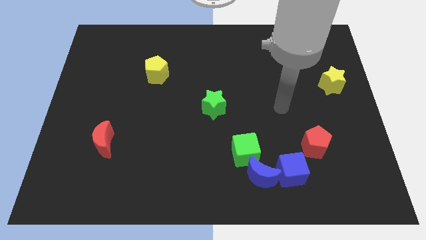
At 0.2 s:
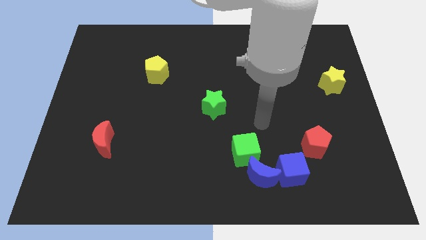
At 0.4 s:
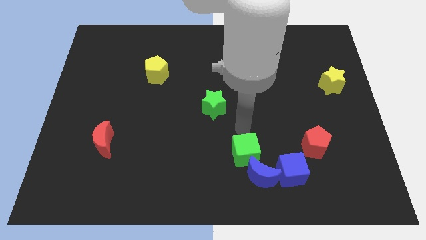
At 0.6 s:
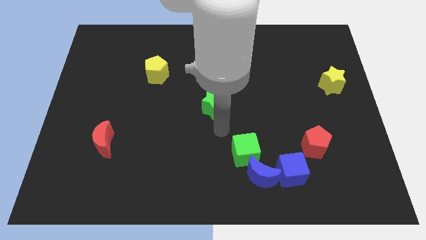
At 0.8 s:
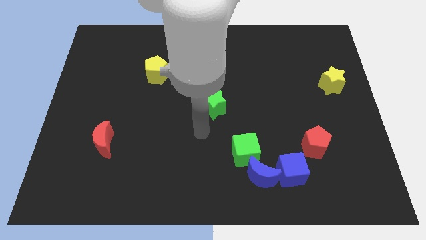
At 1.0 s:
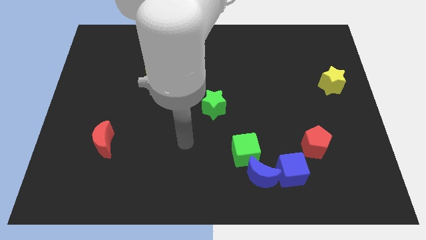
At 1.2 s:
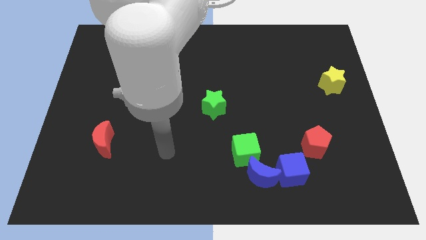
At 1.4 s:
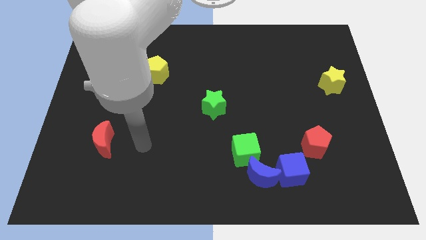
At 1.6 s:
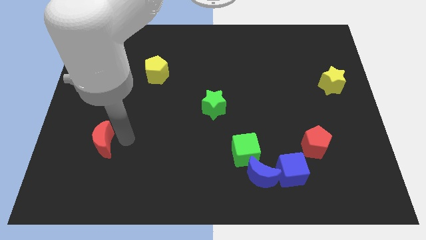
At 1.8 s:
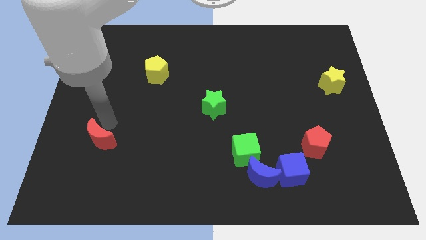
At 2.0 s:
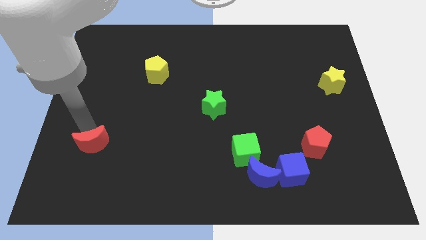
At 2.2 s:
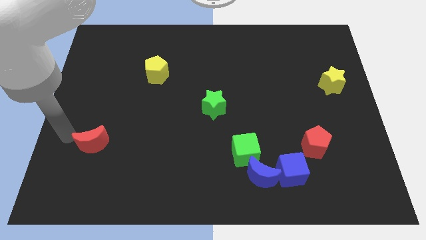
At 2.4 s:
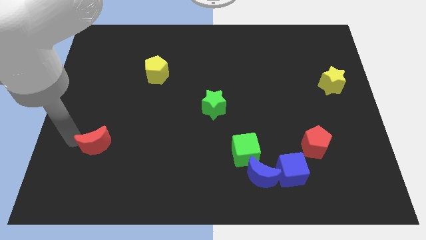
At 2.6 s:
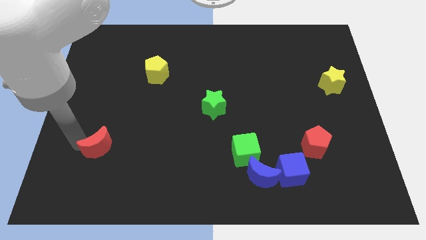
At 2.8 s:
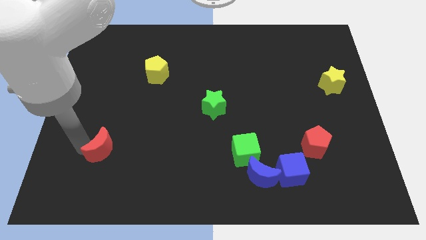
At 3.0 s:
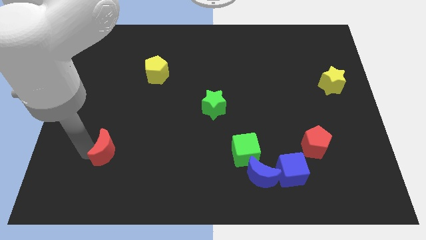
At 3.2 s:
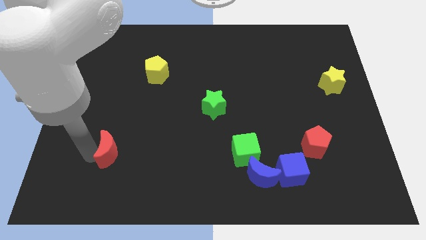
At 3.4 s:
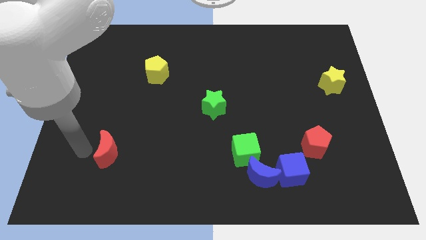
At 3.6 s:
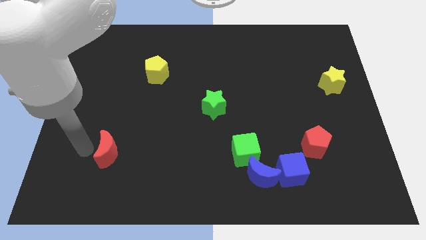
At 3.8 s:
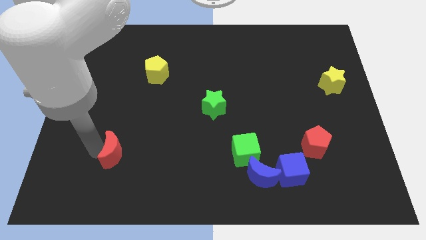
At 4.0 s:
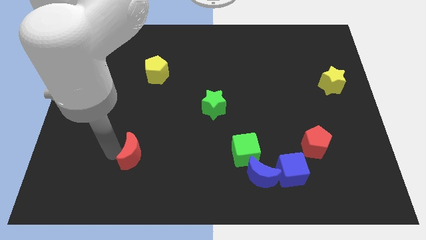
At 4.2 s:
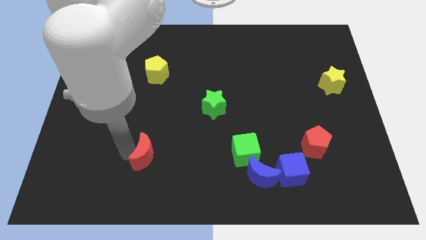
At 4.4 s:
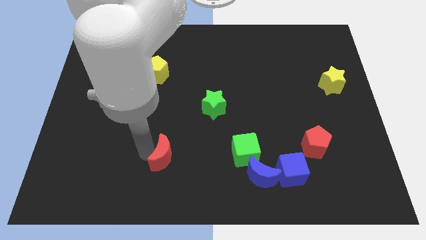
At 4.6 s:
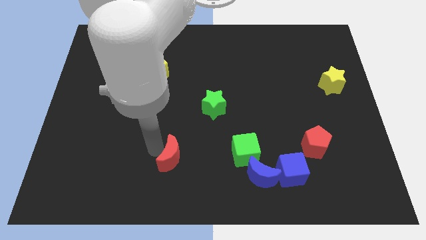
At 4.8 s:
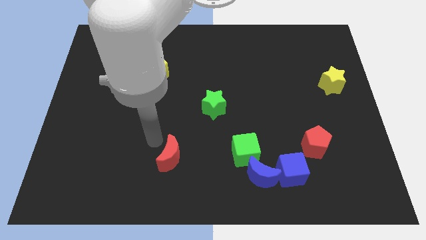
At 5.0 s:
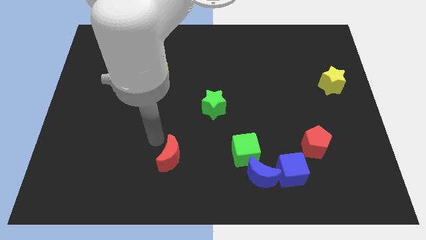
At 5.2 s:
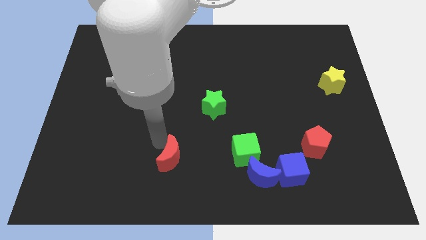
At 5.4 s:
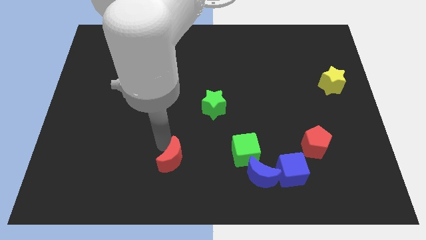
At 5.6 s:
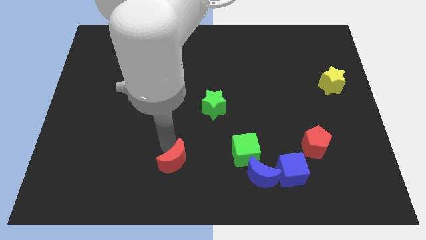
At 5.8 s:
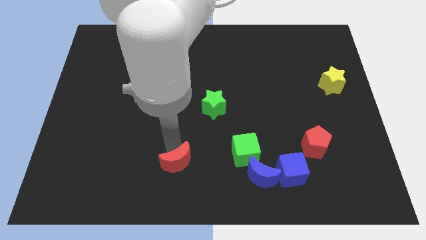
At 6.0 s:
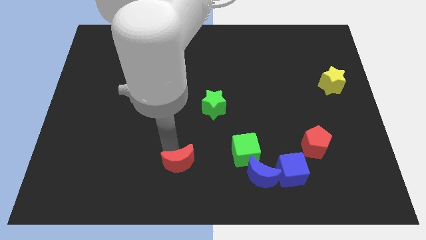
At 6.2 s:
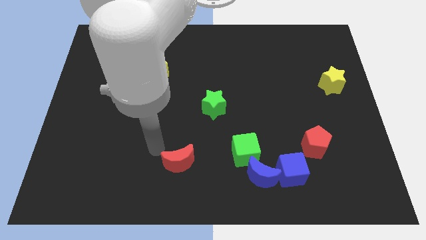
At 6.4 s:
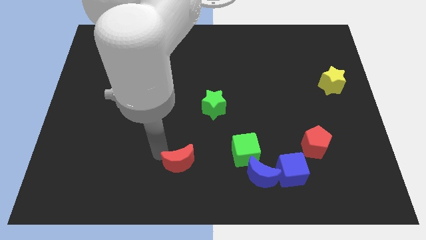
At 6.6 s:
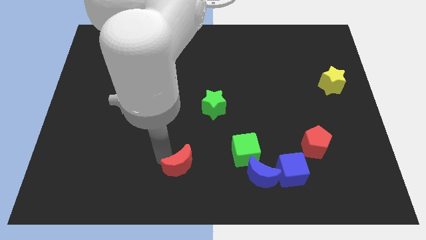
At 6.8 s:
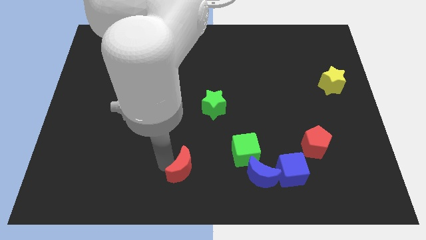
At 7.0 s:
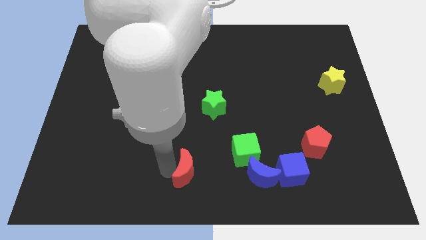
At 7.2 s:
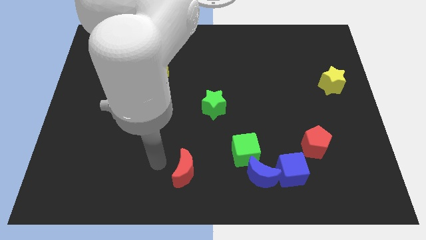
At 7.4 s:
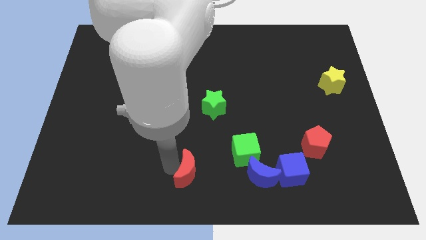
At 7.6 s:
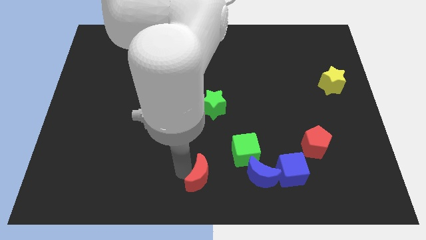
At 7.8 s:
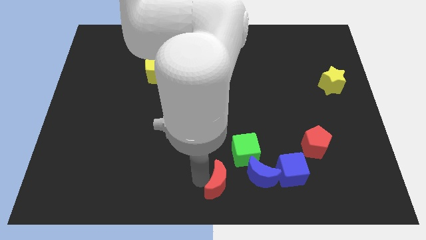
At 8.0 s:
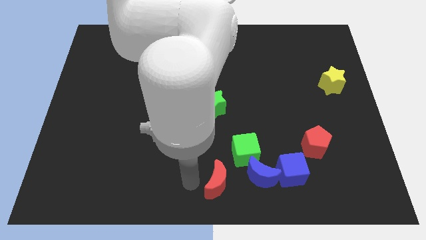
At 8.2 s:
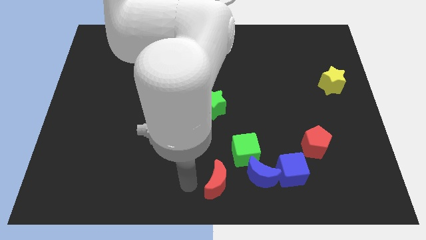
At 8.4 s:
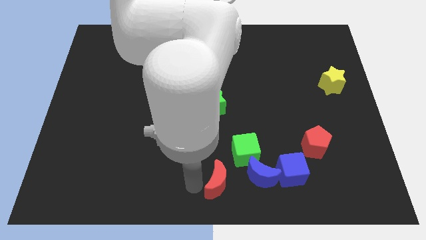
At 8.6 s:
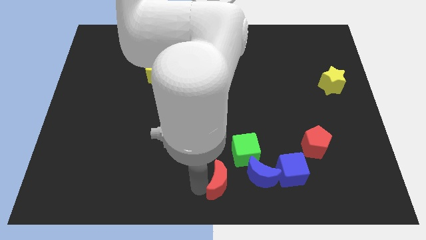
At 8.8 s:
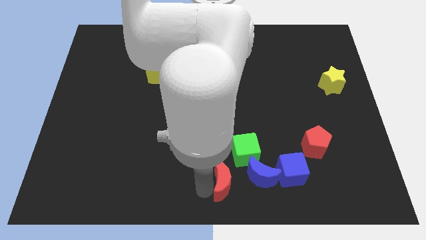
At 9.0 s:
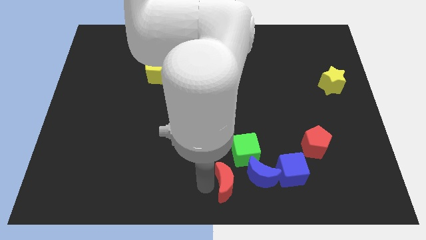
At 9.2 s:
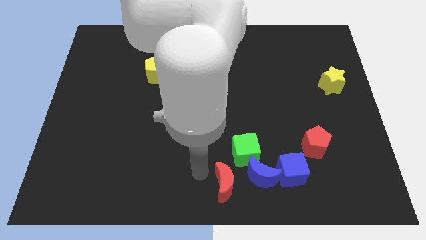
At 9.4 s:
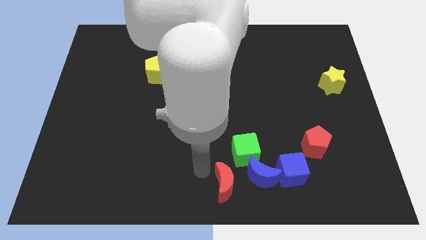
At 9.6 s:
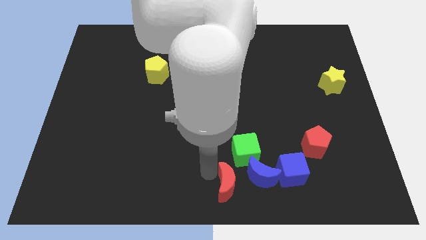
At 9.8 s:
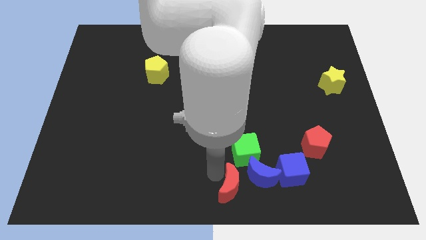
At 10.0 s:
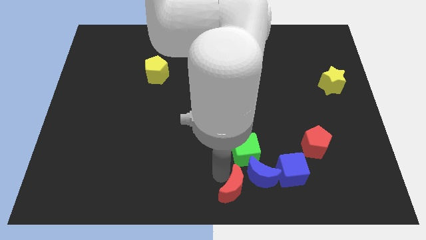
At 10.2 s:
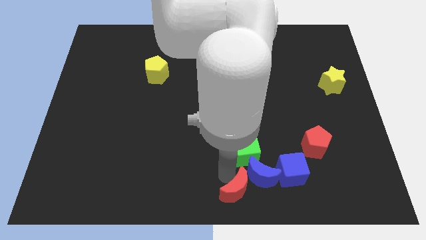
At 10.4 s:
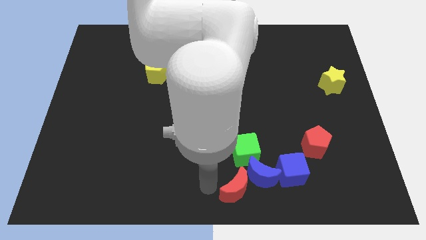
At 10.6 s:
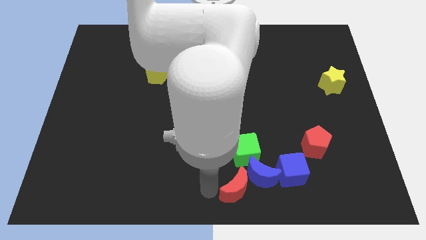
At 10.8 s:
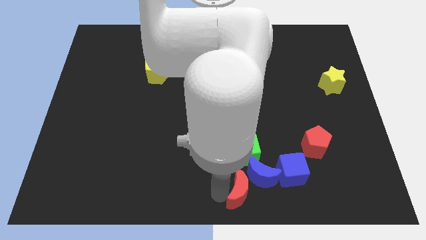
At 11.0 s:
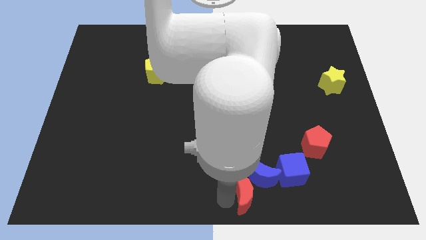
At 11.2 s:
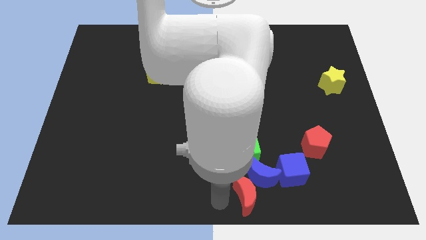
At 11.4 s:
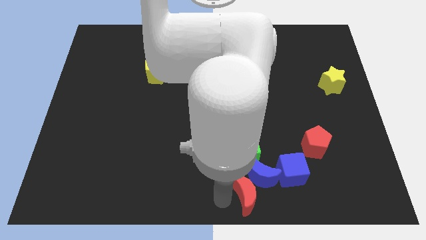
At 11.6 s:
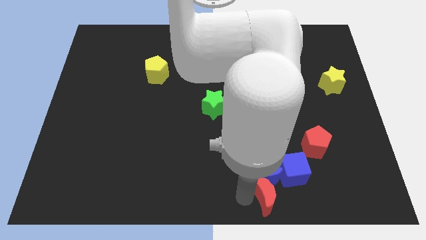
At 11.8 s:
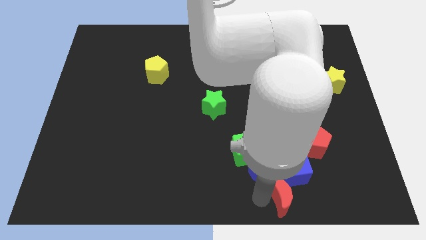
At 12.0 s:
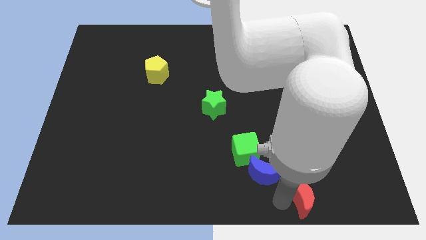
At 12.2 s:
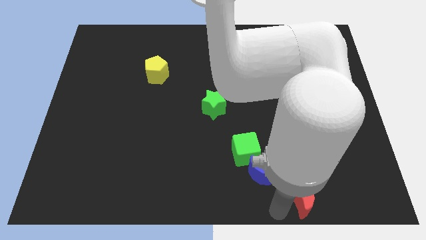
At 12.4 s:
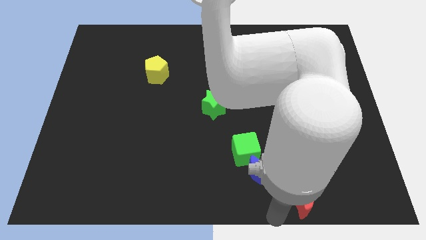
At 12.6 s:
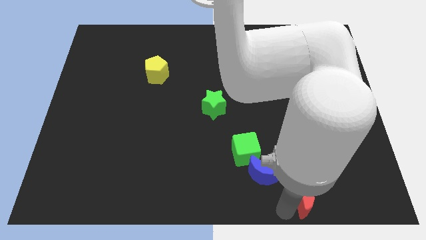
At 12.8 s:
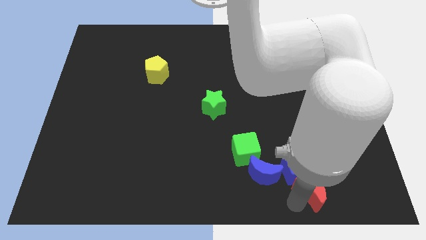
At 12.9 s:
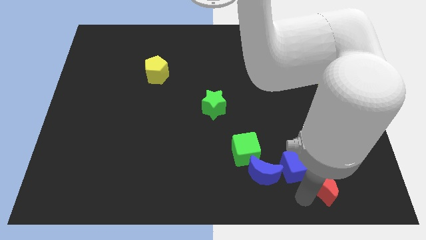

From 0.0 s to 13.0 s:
put the red moon just right of the blue cube

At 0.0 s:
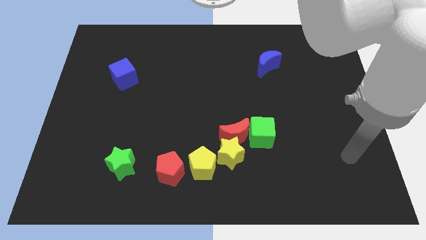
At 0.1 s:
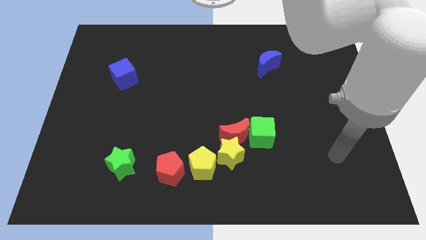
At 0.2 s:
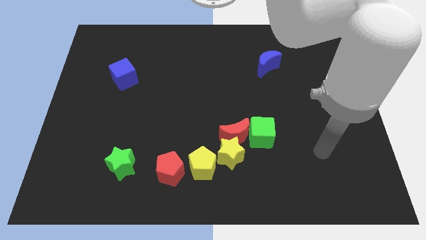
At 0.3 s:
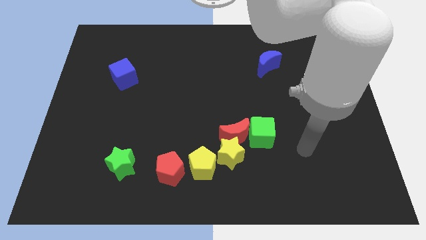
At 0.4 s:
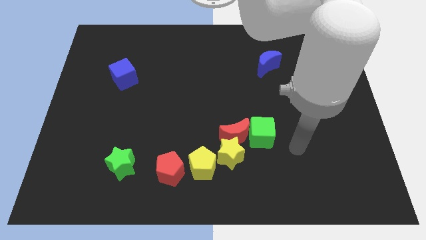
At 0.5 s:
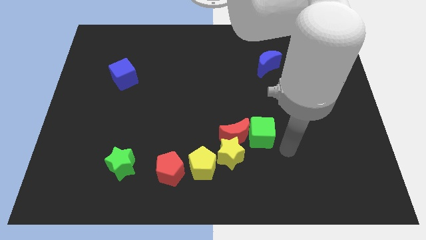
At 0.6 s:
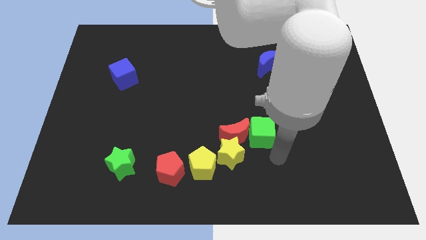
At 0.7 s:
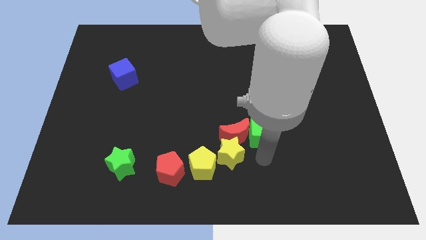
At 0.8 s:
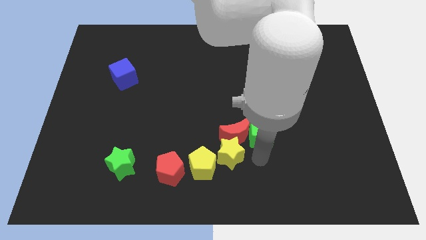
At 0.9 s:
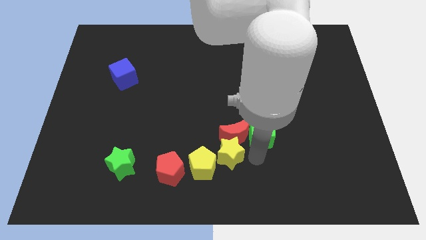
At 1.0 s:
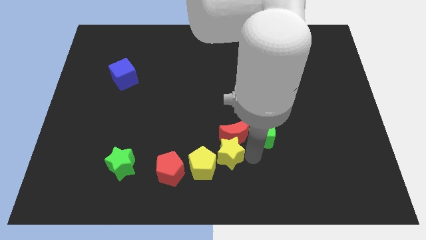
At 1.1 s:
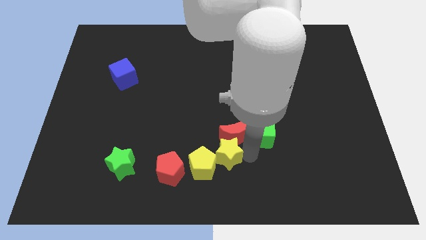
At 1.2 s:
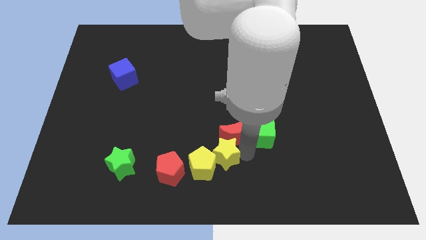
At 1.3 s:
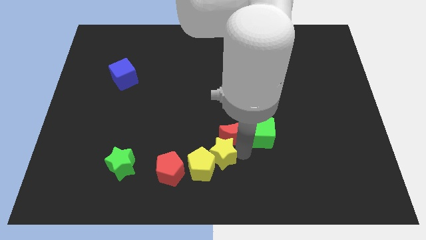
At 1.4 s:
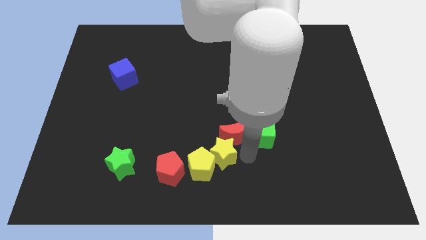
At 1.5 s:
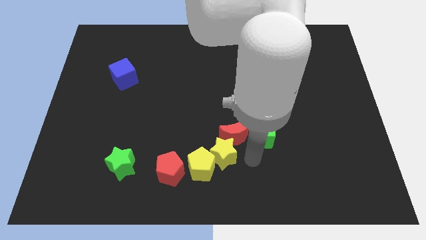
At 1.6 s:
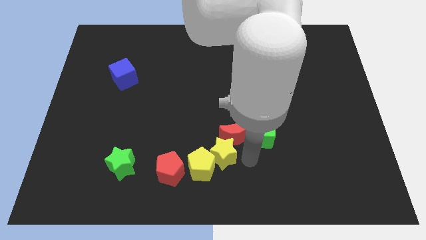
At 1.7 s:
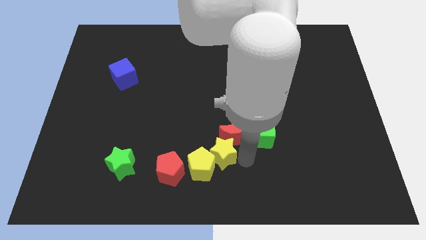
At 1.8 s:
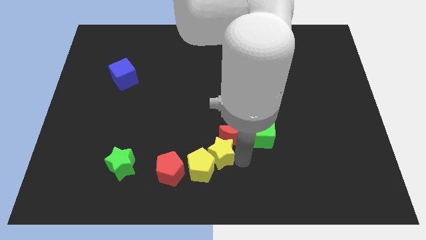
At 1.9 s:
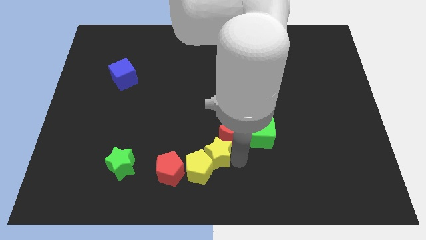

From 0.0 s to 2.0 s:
move the yellow star to the top right side of the red pentagon
